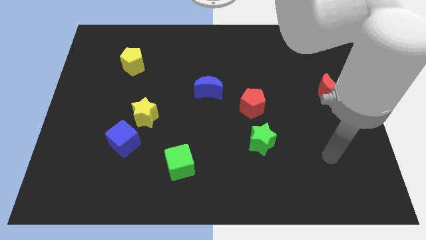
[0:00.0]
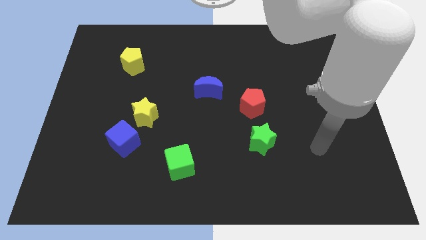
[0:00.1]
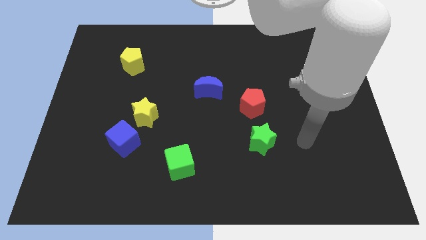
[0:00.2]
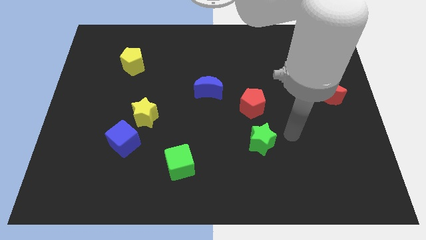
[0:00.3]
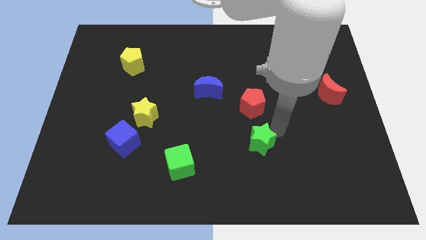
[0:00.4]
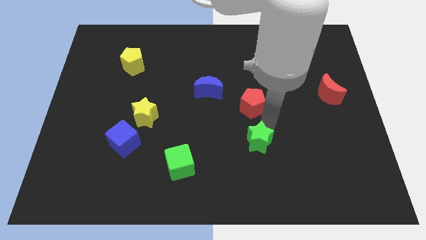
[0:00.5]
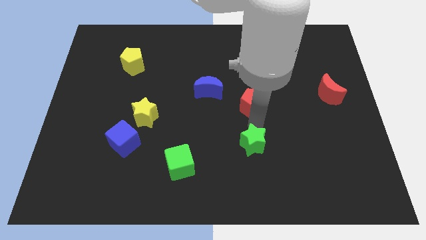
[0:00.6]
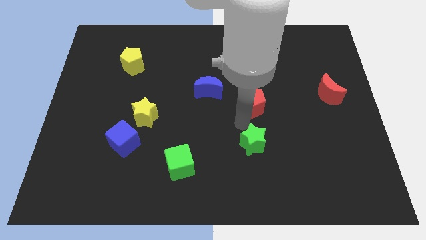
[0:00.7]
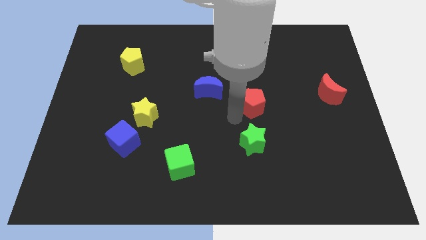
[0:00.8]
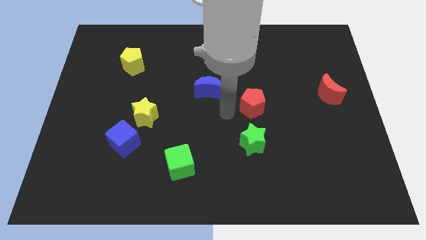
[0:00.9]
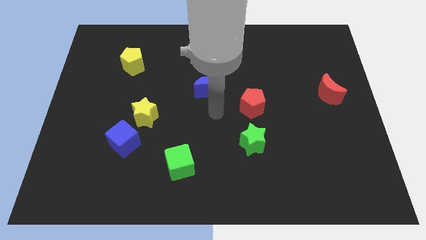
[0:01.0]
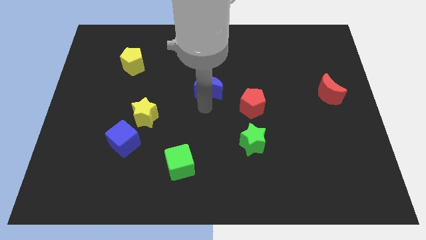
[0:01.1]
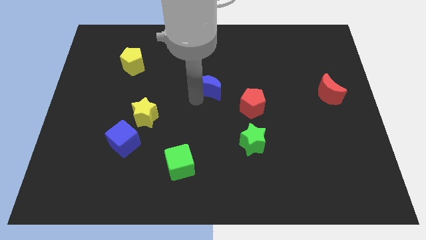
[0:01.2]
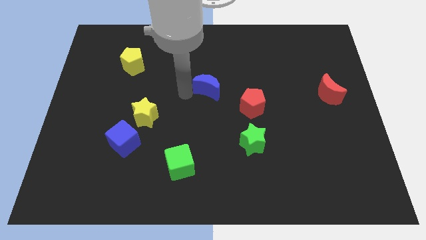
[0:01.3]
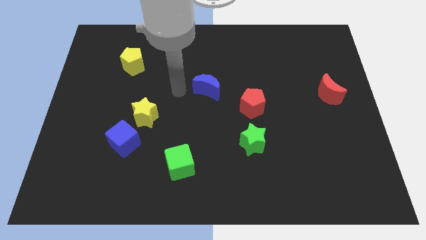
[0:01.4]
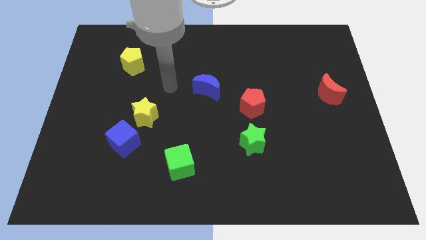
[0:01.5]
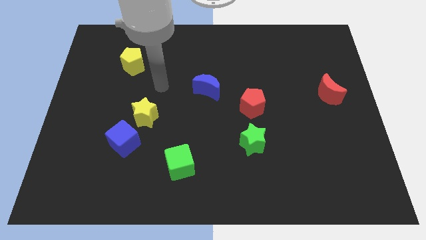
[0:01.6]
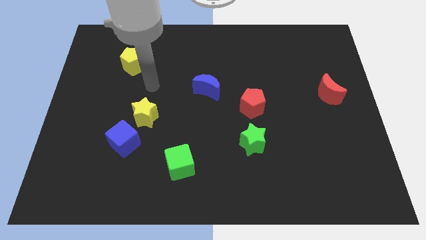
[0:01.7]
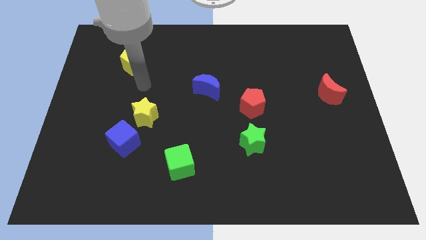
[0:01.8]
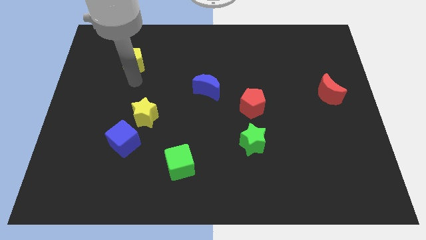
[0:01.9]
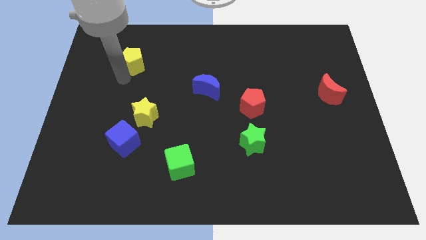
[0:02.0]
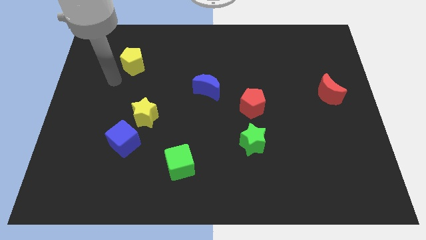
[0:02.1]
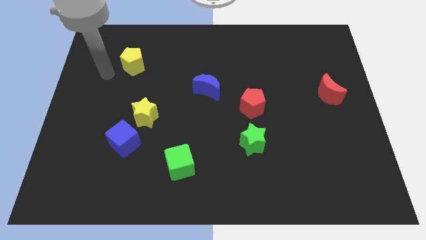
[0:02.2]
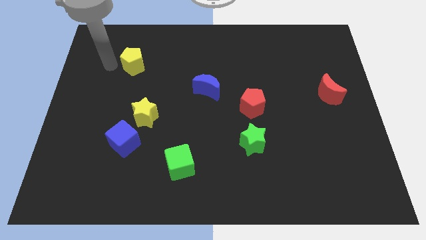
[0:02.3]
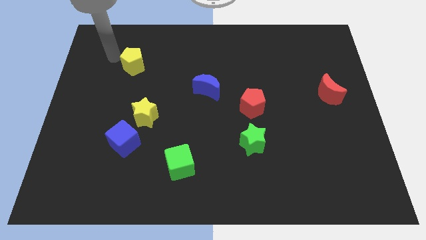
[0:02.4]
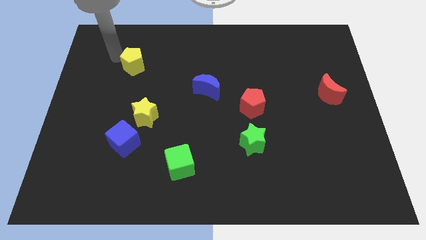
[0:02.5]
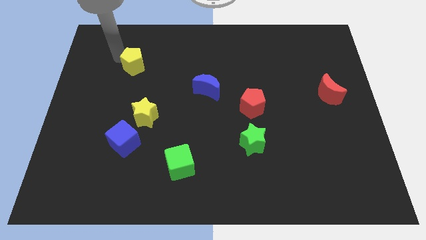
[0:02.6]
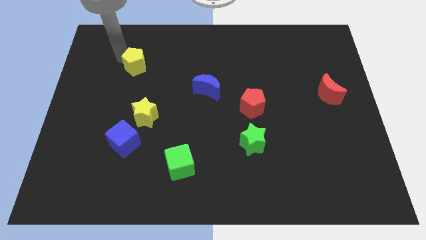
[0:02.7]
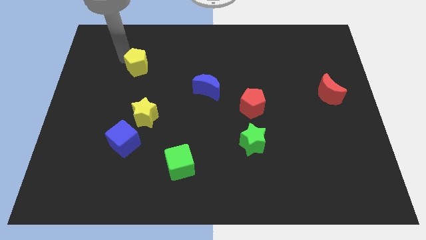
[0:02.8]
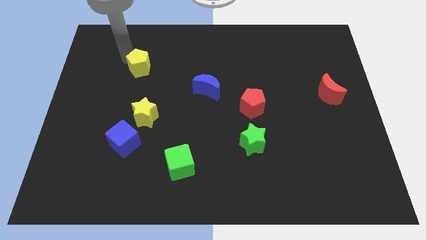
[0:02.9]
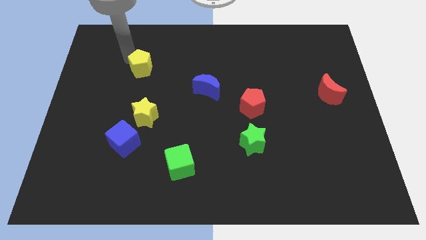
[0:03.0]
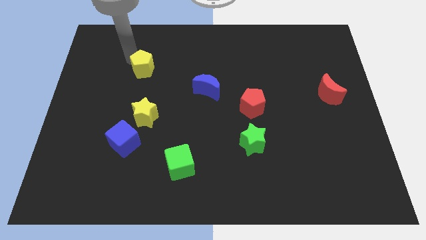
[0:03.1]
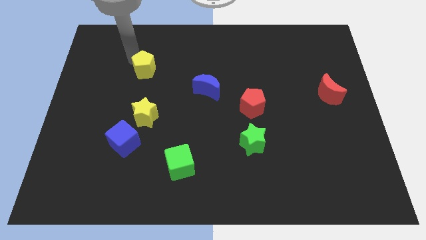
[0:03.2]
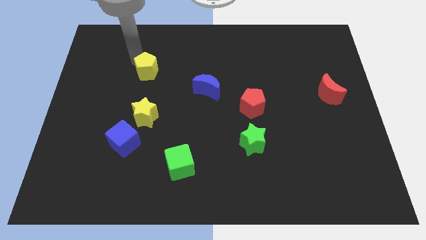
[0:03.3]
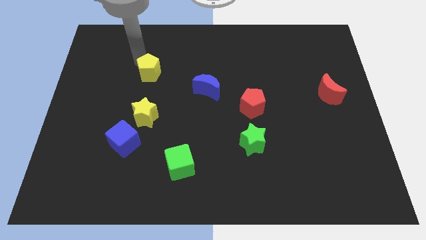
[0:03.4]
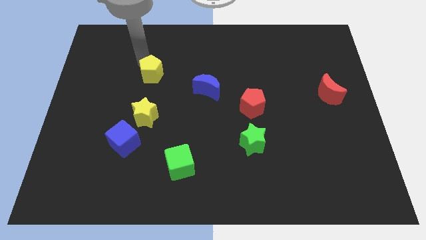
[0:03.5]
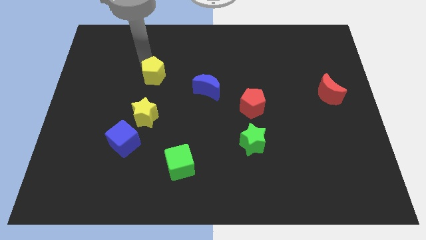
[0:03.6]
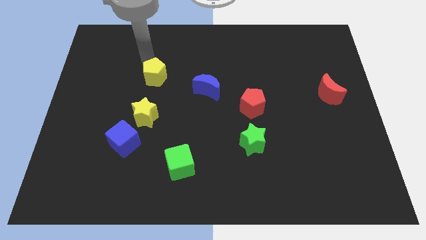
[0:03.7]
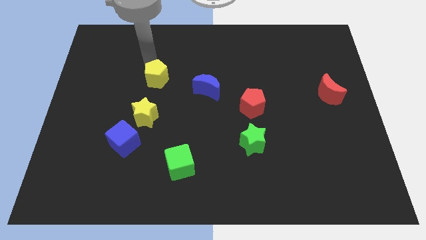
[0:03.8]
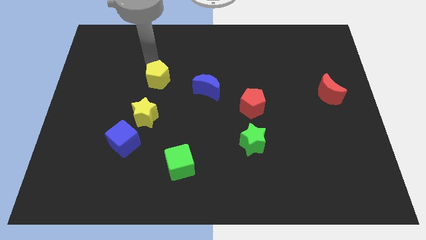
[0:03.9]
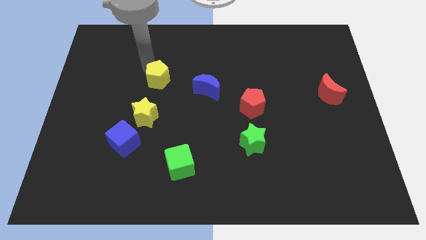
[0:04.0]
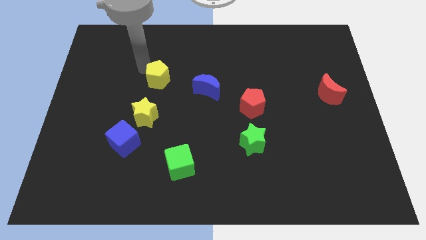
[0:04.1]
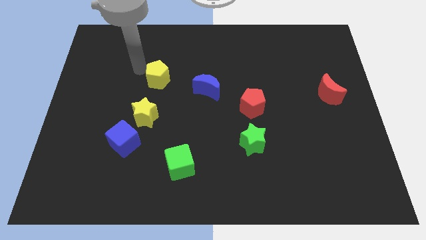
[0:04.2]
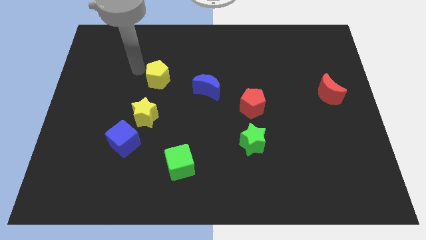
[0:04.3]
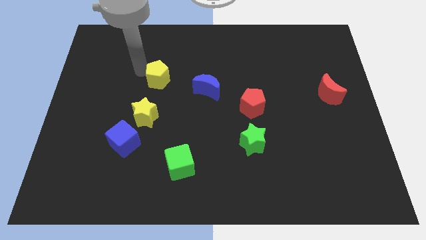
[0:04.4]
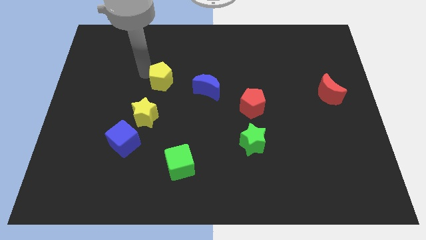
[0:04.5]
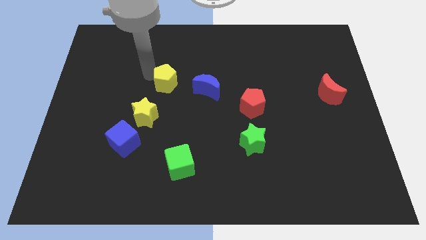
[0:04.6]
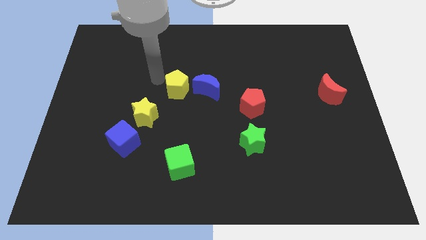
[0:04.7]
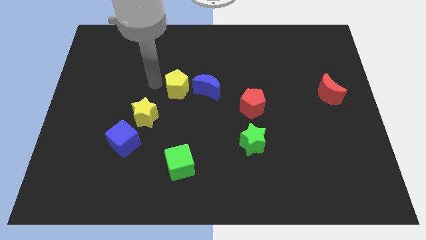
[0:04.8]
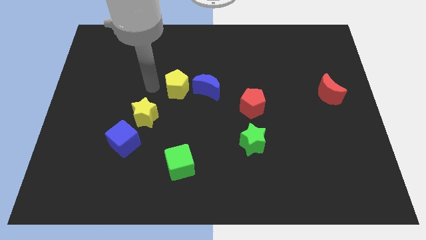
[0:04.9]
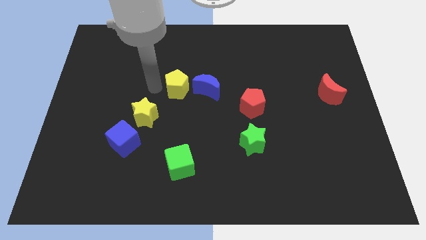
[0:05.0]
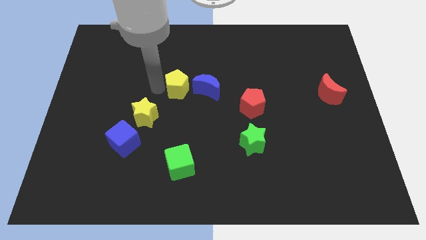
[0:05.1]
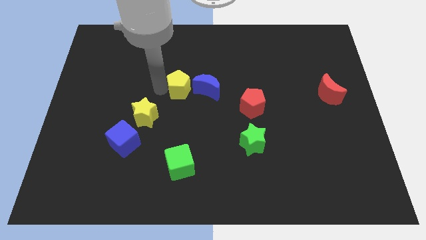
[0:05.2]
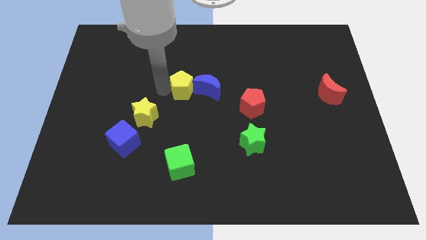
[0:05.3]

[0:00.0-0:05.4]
put the yellow pentagon next to the blue moon

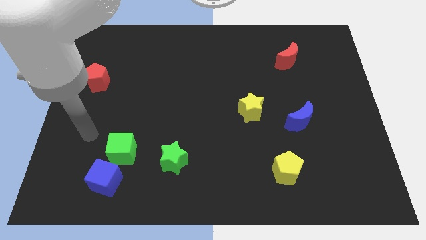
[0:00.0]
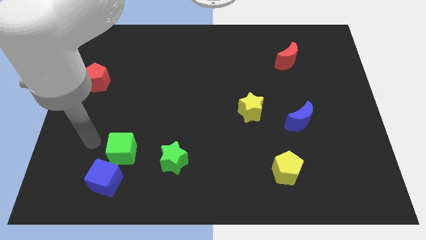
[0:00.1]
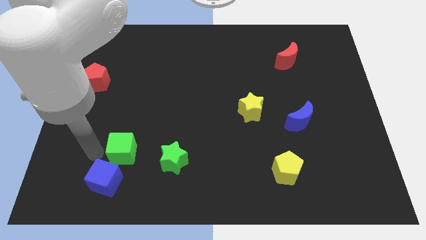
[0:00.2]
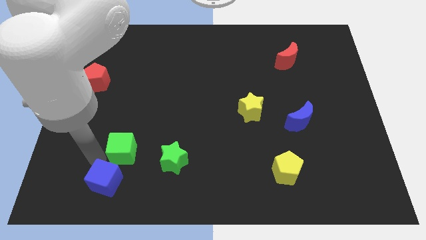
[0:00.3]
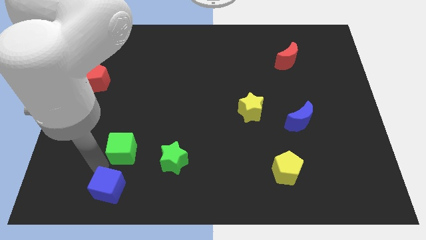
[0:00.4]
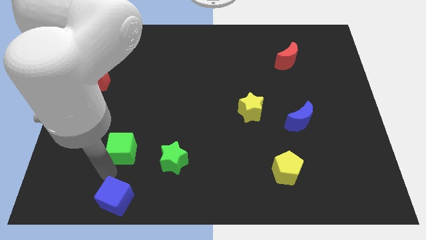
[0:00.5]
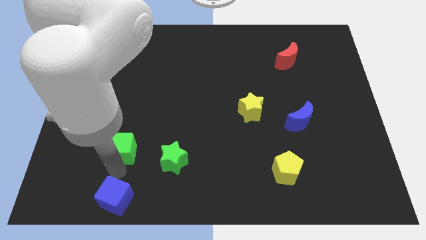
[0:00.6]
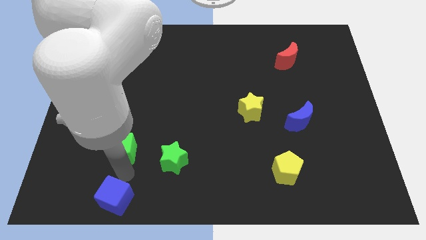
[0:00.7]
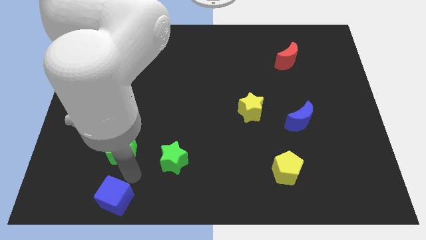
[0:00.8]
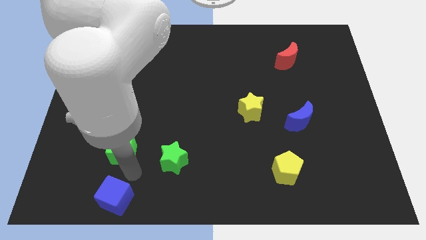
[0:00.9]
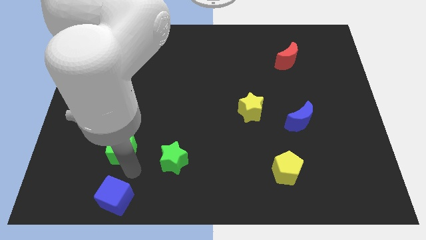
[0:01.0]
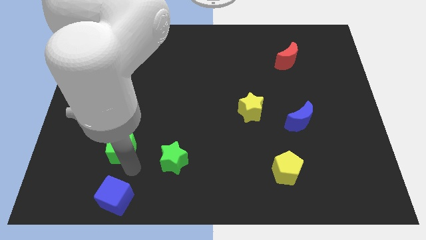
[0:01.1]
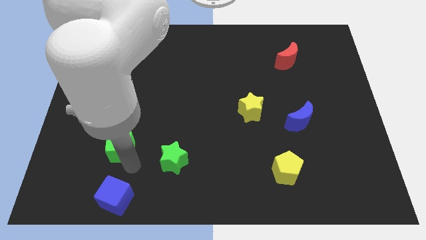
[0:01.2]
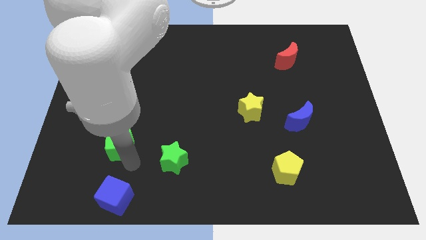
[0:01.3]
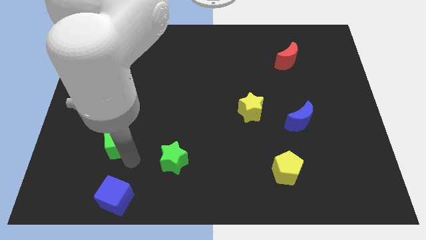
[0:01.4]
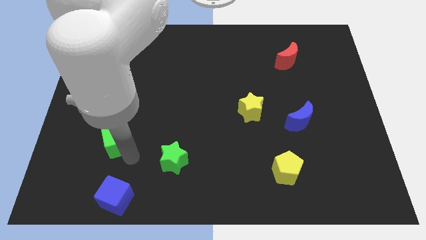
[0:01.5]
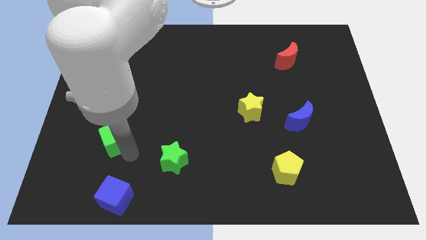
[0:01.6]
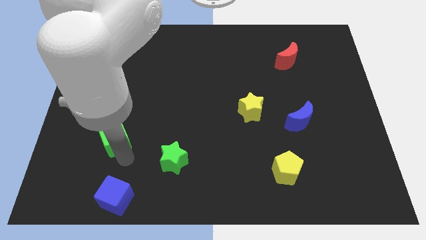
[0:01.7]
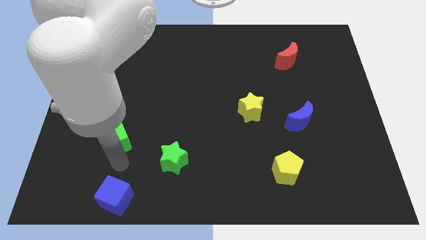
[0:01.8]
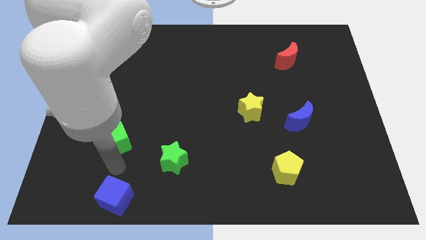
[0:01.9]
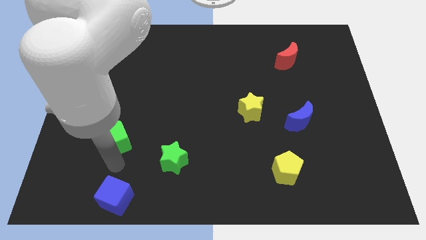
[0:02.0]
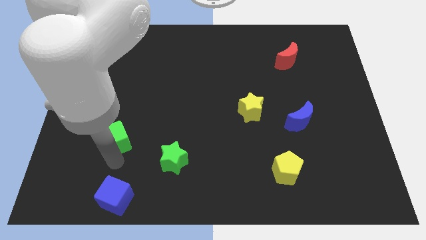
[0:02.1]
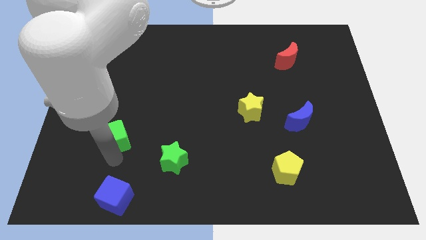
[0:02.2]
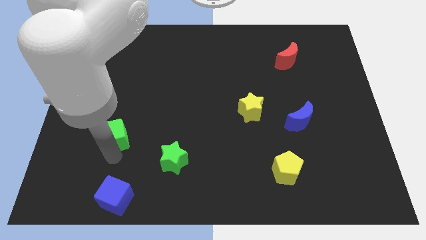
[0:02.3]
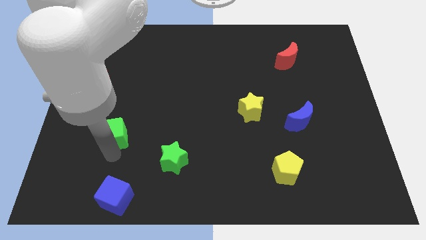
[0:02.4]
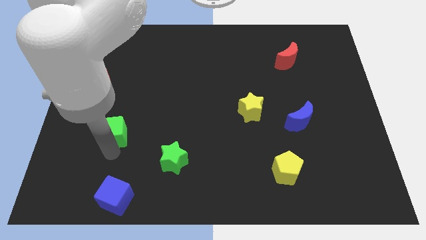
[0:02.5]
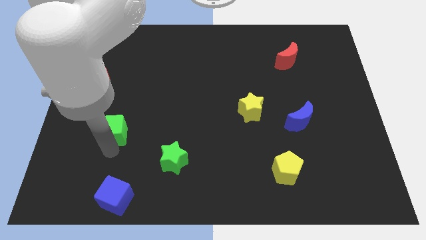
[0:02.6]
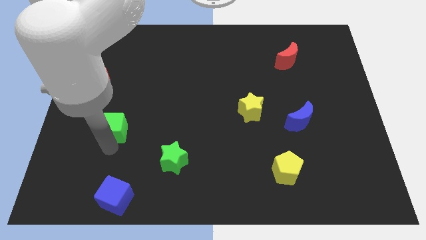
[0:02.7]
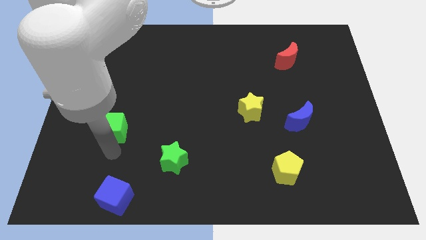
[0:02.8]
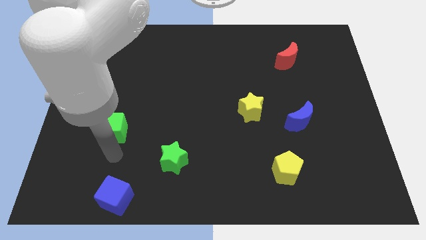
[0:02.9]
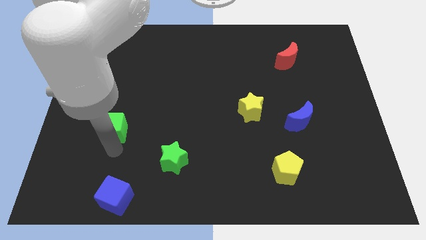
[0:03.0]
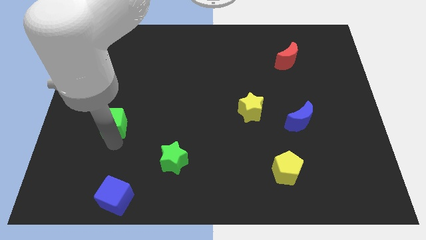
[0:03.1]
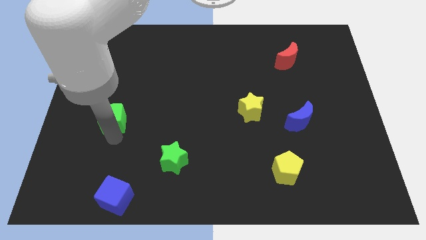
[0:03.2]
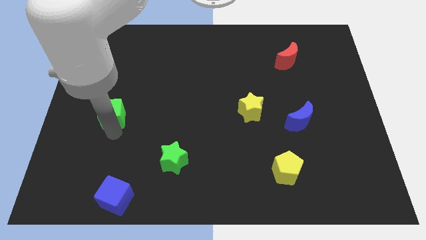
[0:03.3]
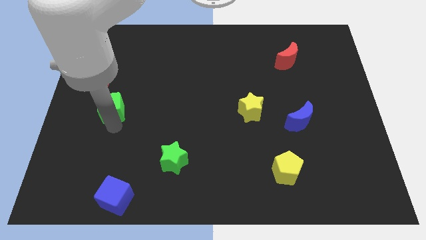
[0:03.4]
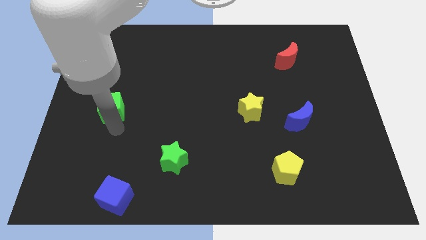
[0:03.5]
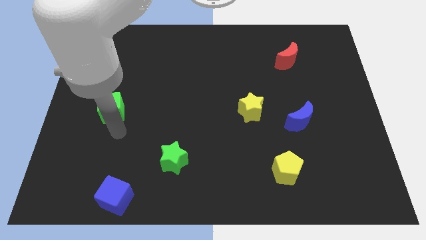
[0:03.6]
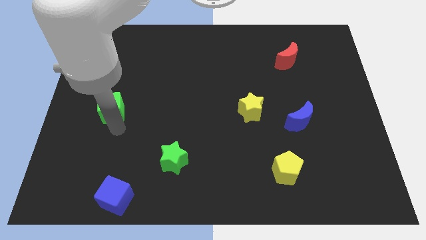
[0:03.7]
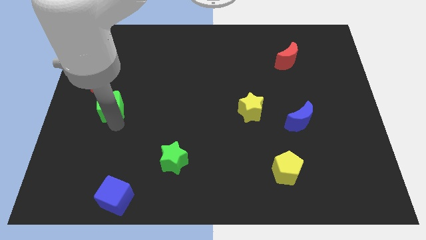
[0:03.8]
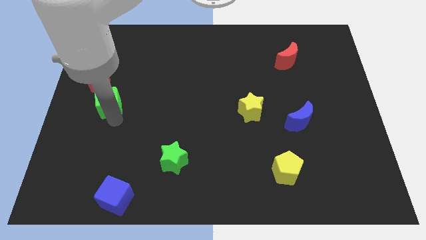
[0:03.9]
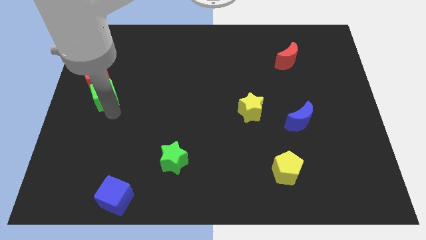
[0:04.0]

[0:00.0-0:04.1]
move the green cube next to the red pentagon
